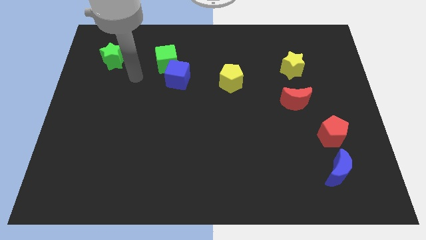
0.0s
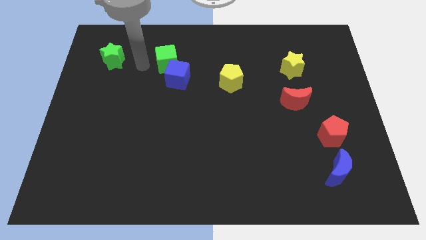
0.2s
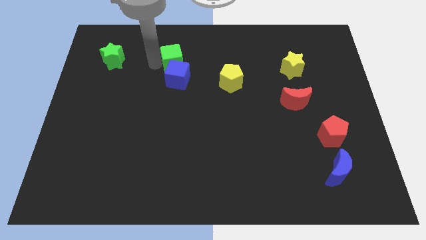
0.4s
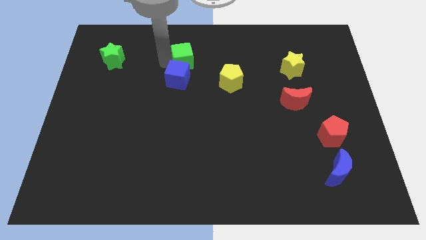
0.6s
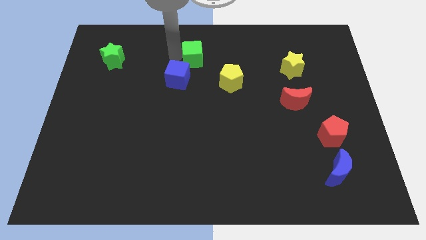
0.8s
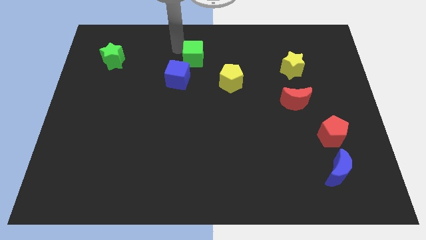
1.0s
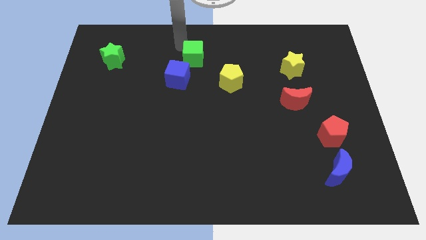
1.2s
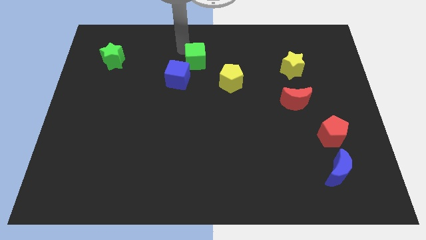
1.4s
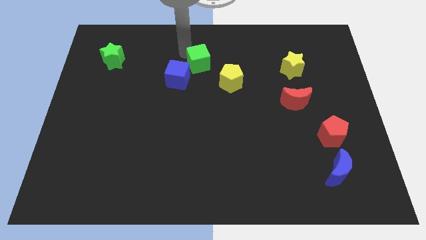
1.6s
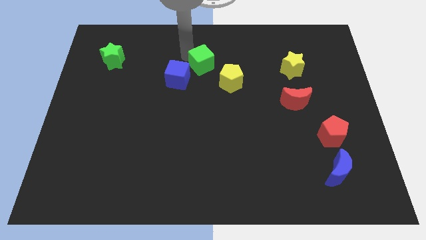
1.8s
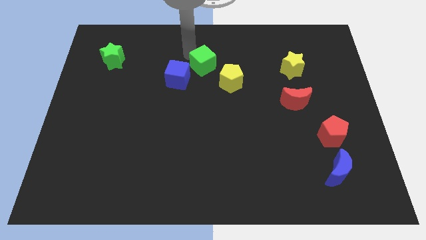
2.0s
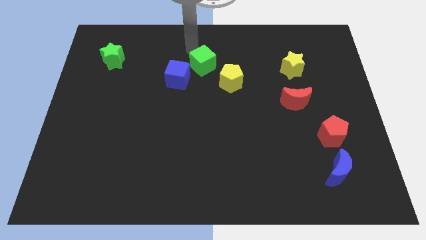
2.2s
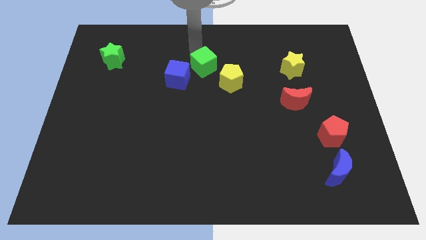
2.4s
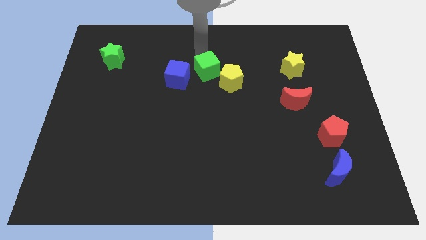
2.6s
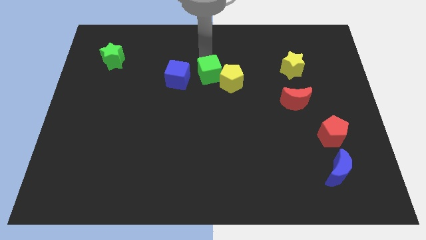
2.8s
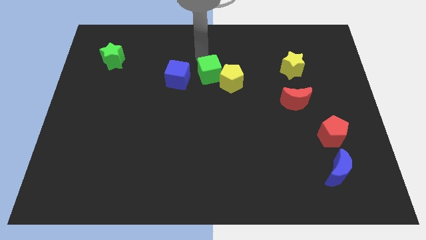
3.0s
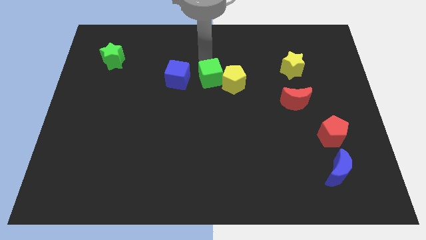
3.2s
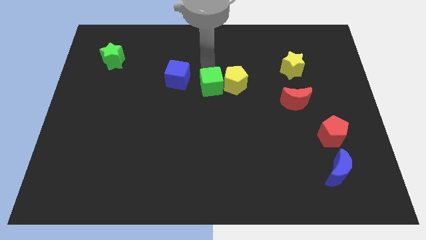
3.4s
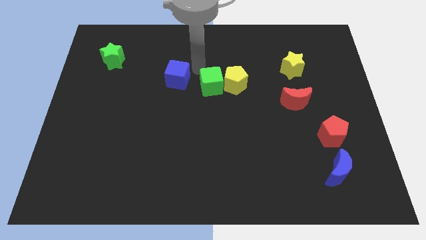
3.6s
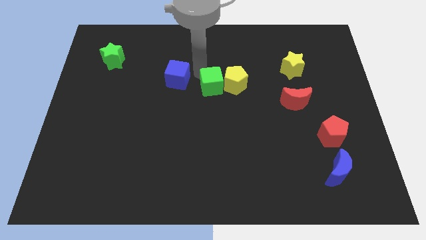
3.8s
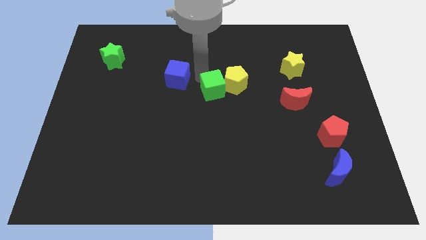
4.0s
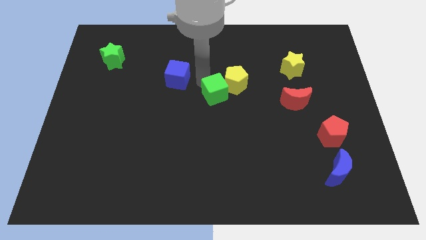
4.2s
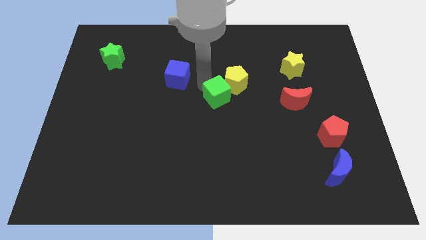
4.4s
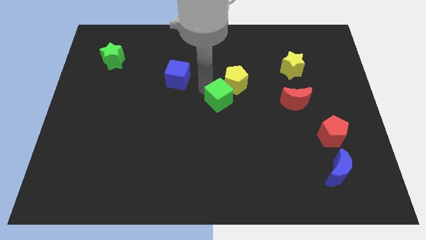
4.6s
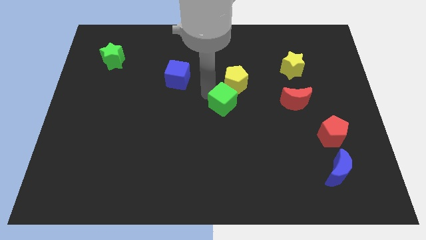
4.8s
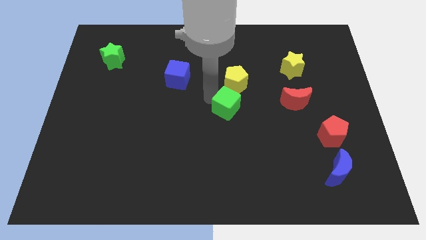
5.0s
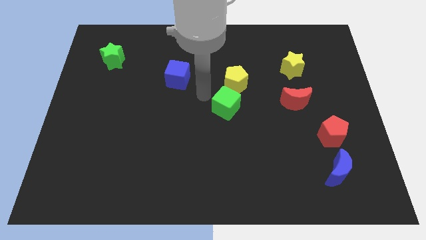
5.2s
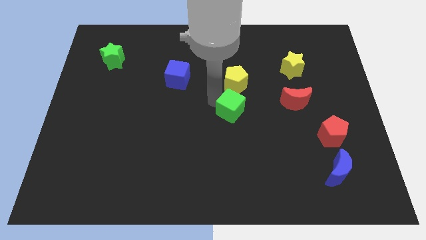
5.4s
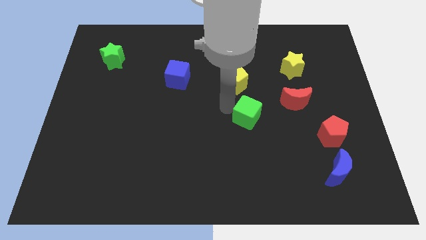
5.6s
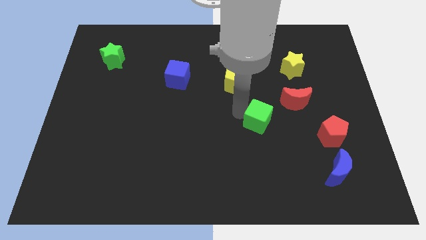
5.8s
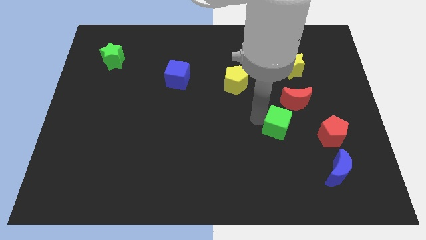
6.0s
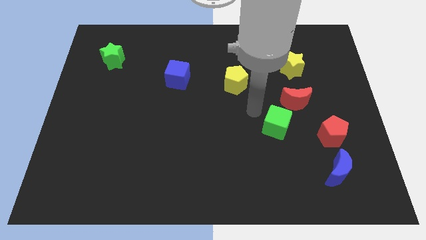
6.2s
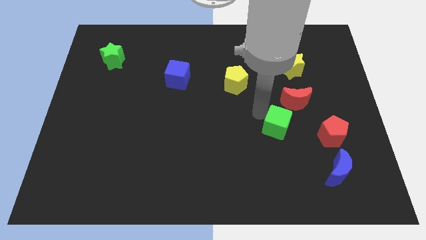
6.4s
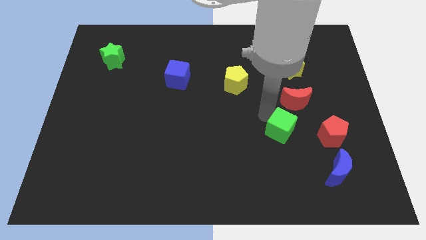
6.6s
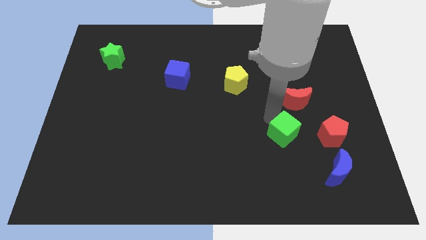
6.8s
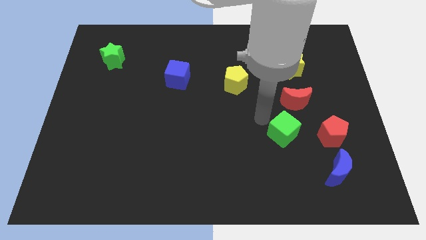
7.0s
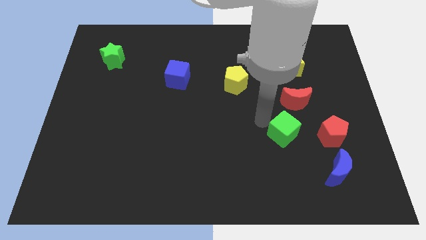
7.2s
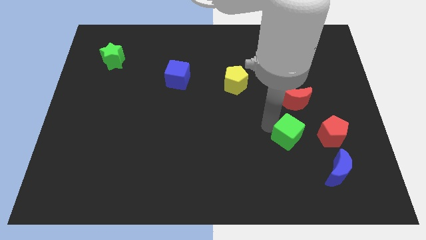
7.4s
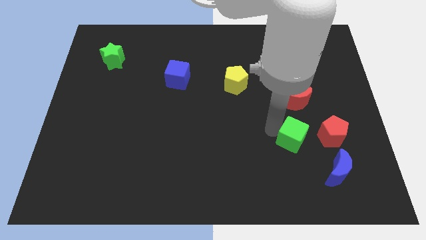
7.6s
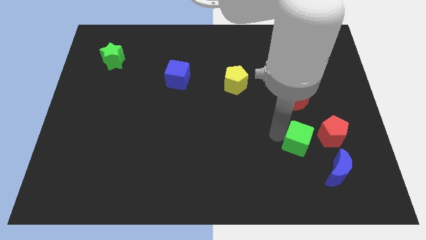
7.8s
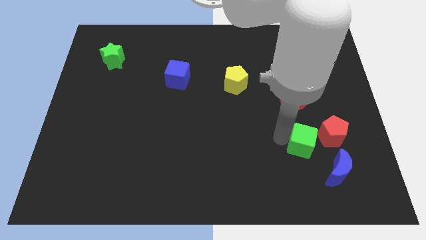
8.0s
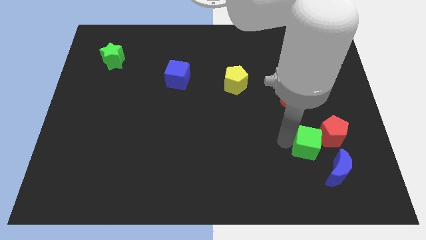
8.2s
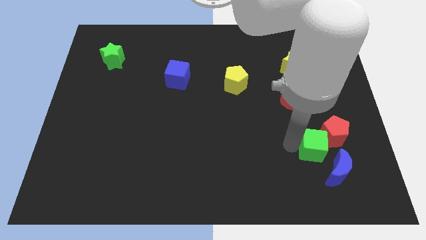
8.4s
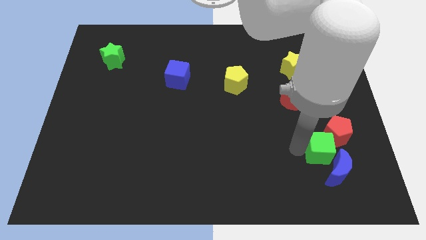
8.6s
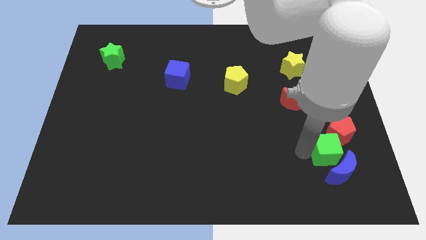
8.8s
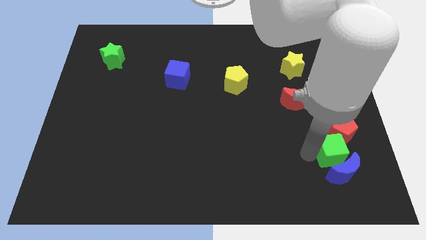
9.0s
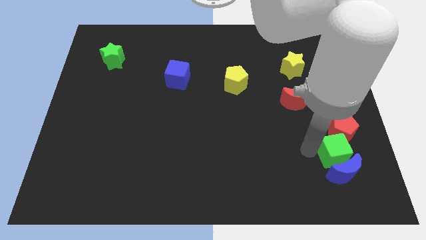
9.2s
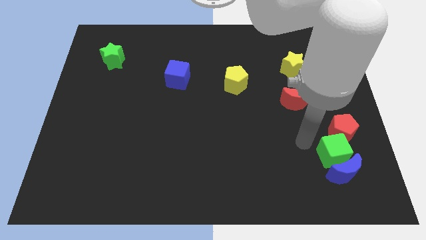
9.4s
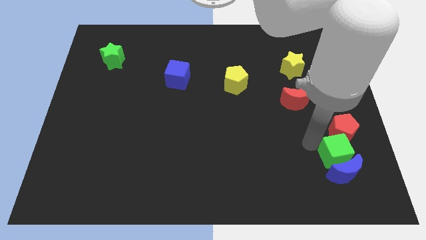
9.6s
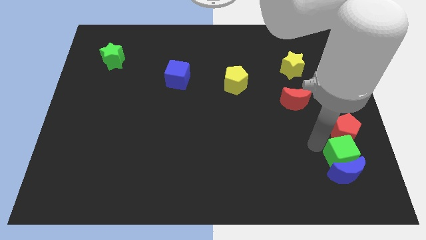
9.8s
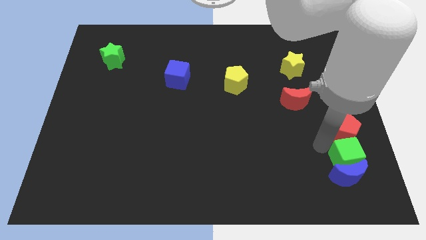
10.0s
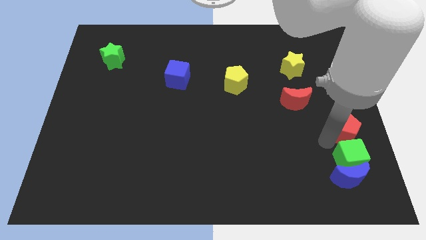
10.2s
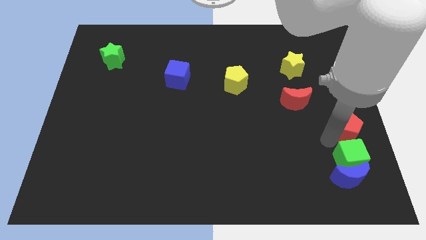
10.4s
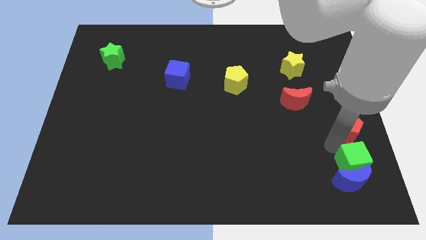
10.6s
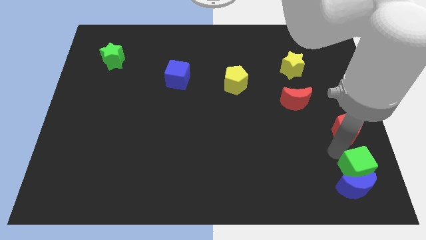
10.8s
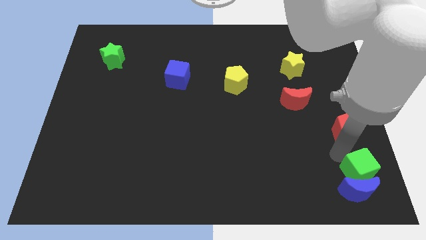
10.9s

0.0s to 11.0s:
push the green cube to the bottom right of the board
